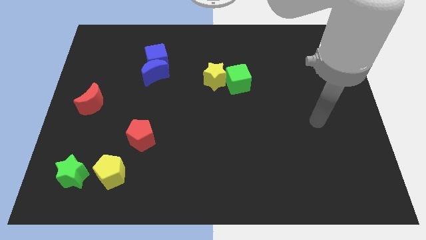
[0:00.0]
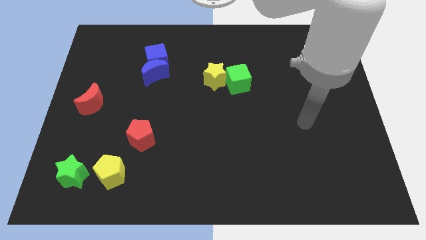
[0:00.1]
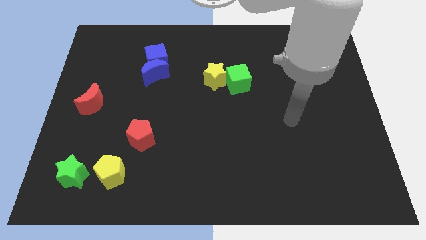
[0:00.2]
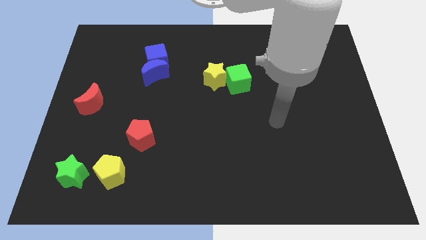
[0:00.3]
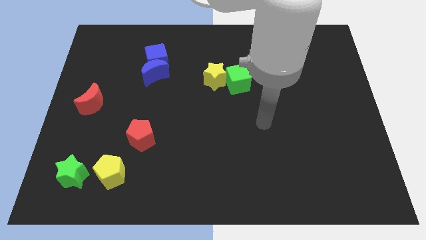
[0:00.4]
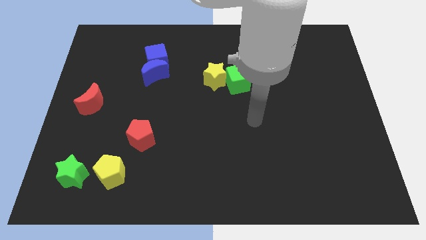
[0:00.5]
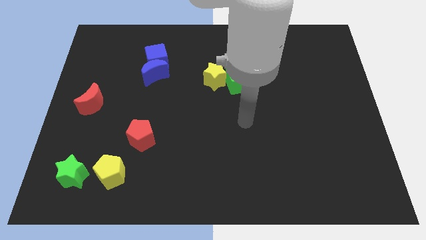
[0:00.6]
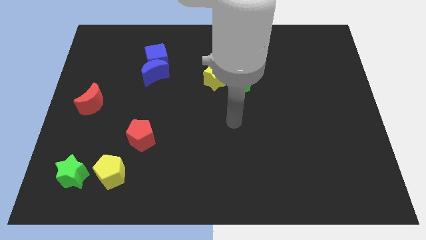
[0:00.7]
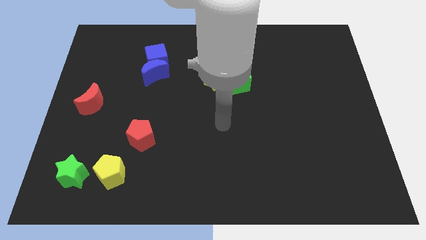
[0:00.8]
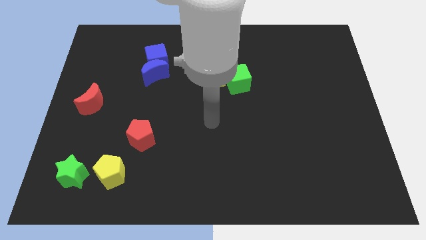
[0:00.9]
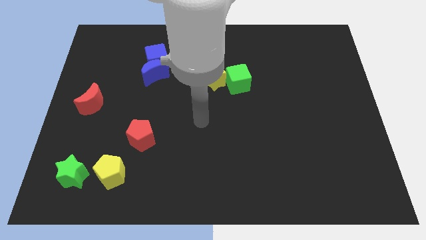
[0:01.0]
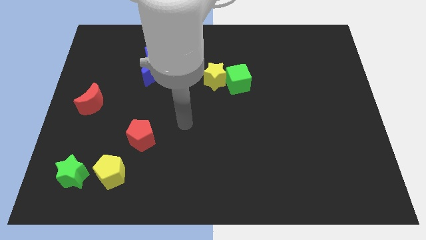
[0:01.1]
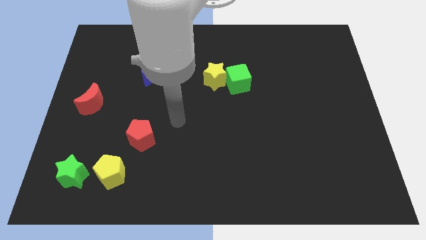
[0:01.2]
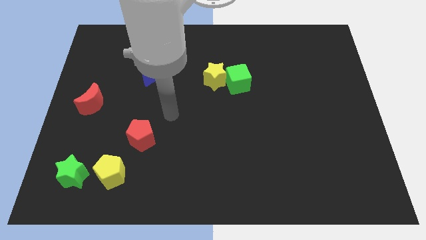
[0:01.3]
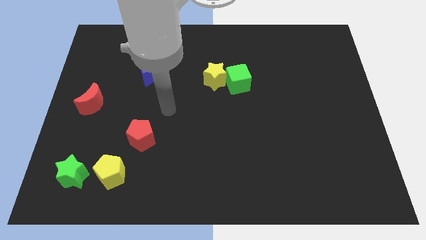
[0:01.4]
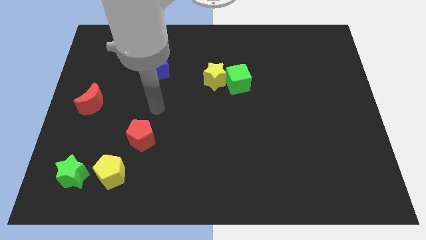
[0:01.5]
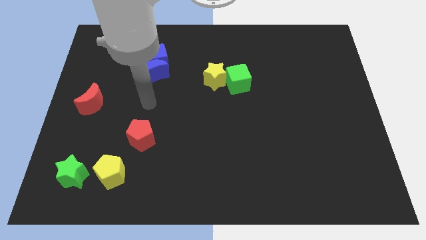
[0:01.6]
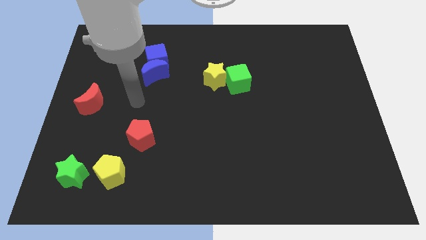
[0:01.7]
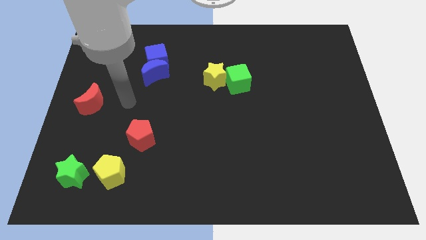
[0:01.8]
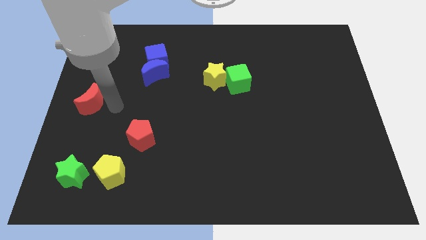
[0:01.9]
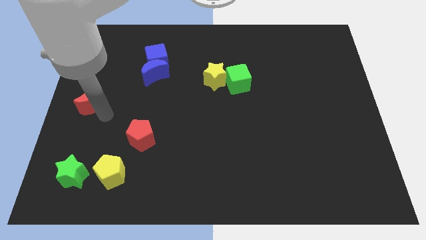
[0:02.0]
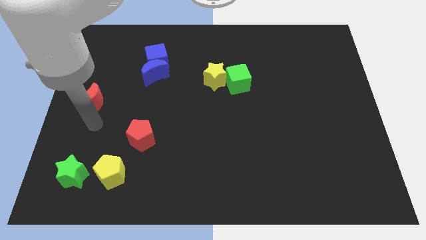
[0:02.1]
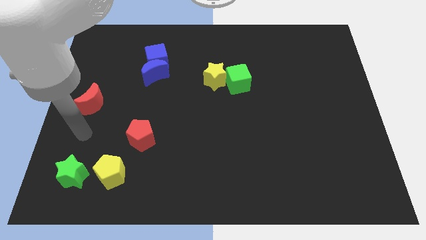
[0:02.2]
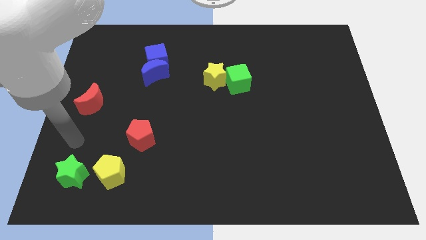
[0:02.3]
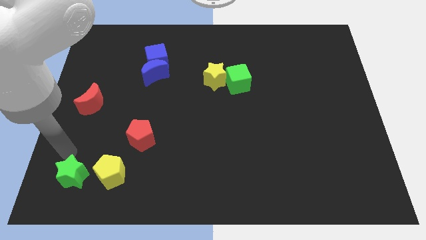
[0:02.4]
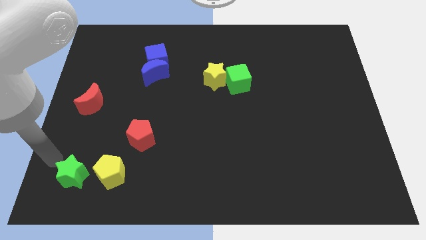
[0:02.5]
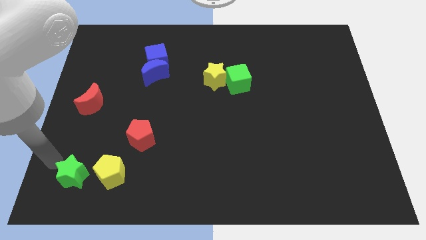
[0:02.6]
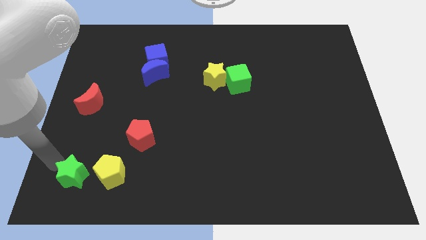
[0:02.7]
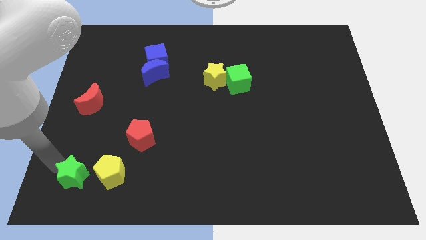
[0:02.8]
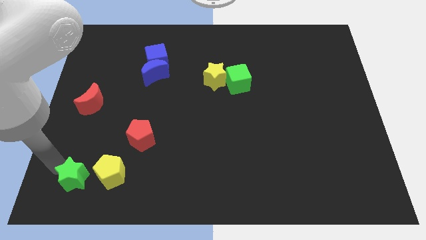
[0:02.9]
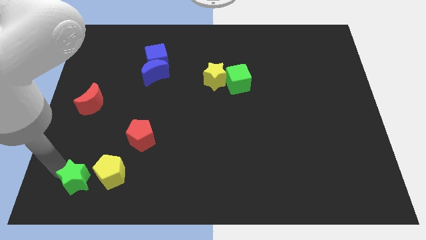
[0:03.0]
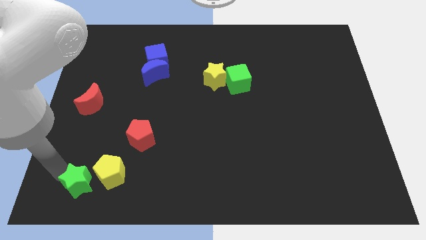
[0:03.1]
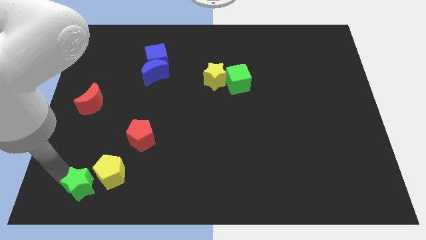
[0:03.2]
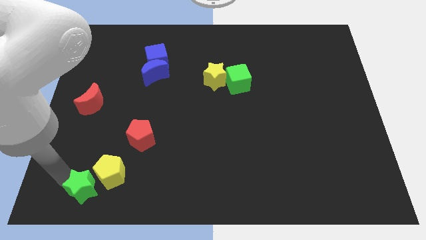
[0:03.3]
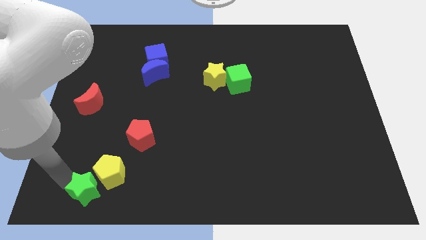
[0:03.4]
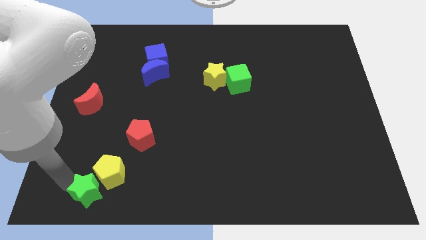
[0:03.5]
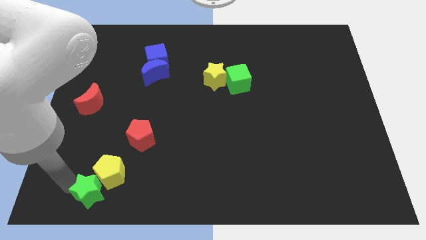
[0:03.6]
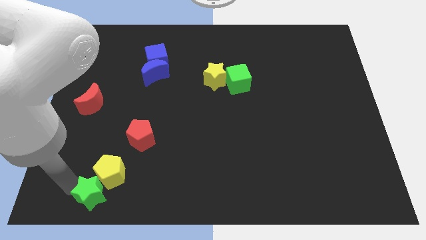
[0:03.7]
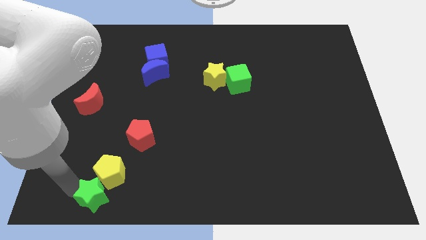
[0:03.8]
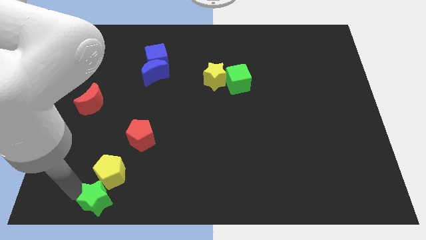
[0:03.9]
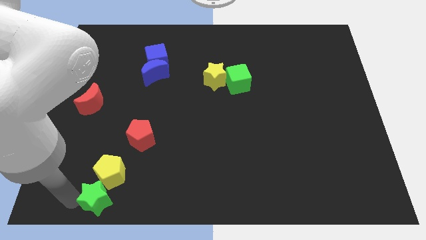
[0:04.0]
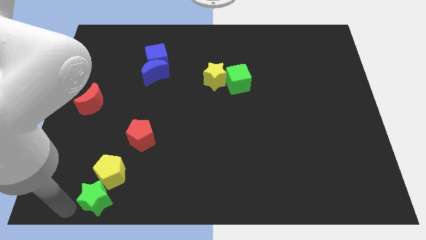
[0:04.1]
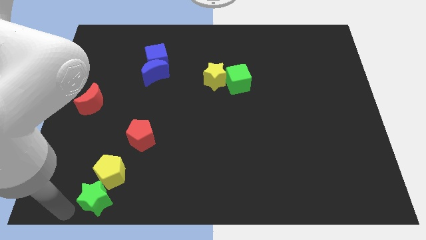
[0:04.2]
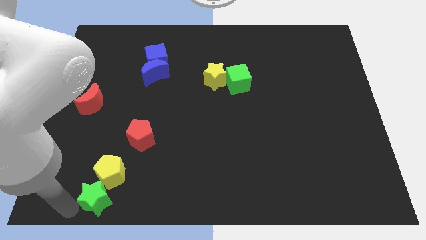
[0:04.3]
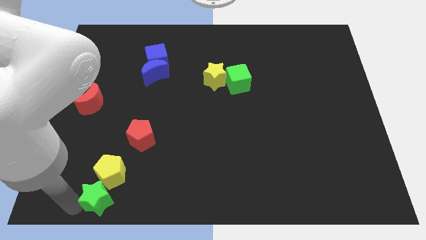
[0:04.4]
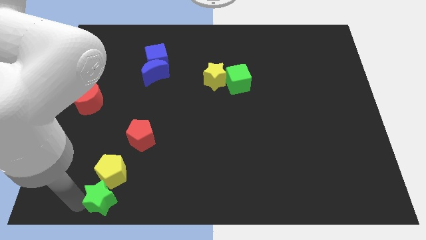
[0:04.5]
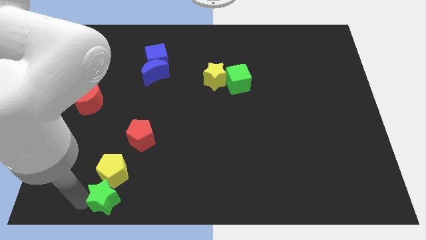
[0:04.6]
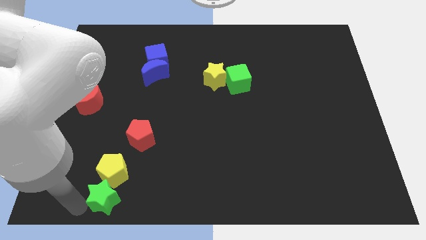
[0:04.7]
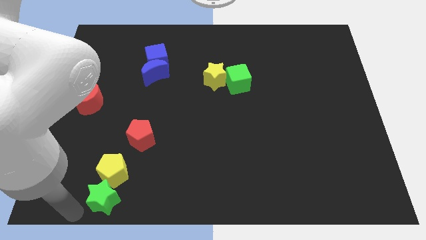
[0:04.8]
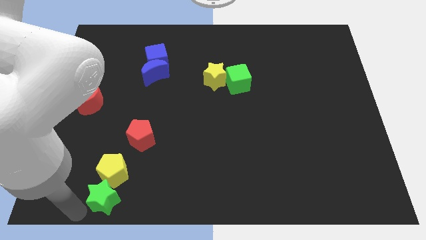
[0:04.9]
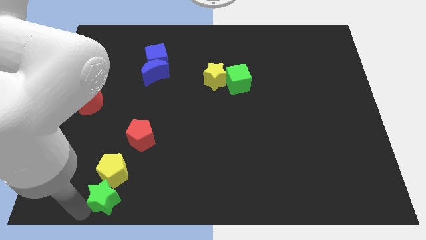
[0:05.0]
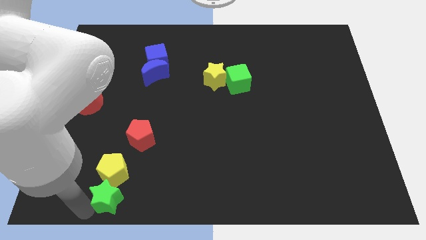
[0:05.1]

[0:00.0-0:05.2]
move the green star right a little

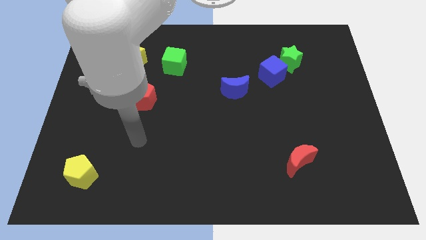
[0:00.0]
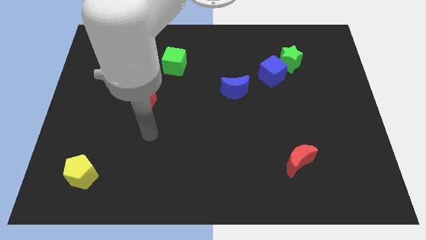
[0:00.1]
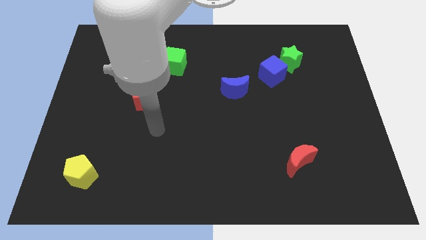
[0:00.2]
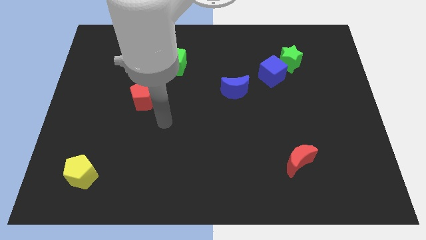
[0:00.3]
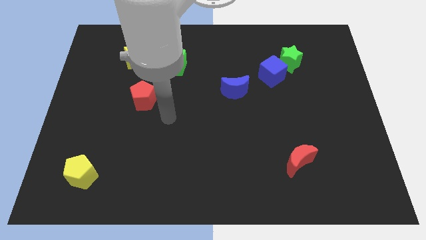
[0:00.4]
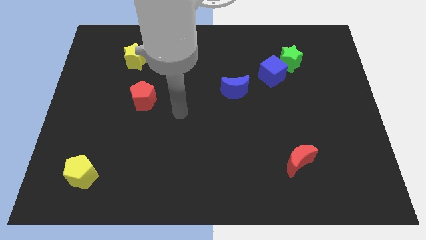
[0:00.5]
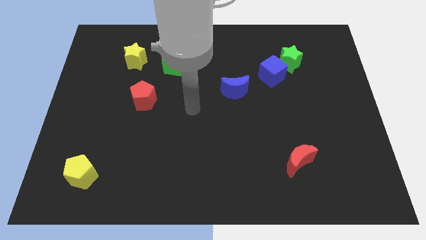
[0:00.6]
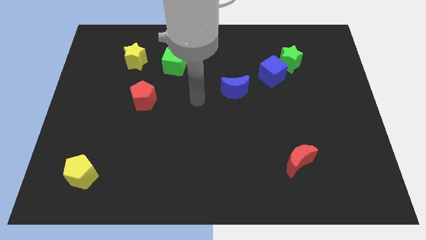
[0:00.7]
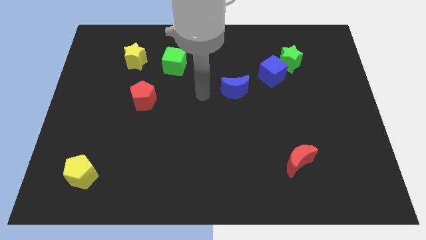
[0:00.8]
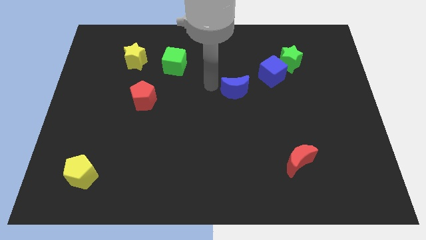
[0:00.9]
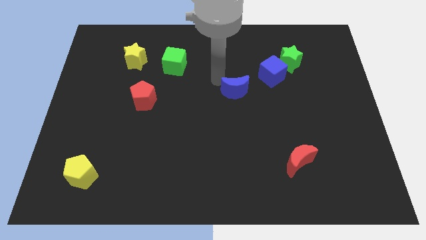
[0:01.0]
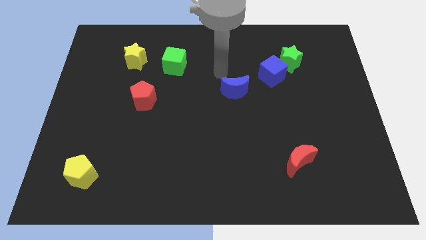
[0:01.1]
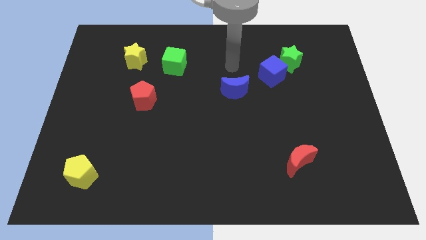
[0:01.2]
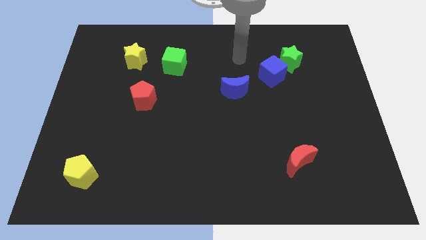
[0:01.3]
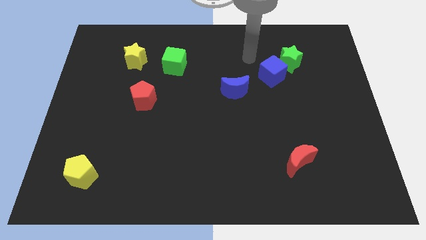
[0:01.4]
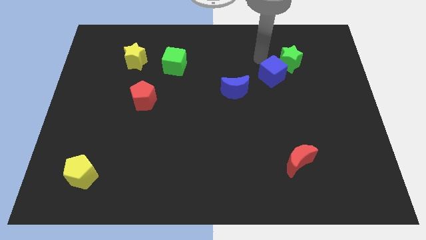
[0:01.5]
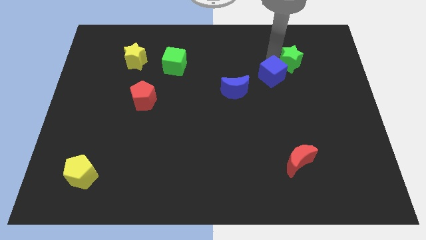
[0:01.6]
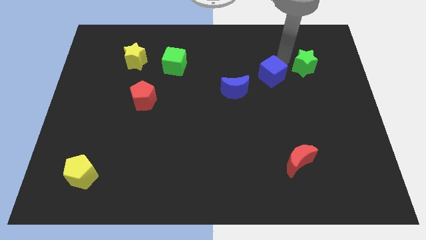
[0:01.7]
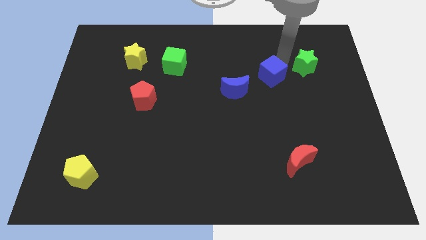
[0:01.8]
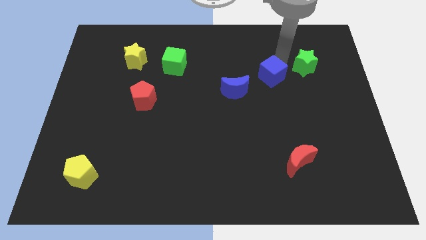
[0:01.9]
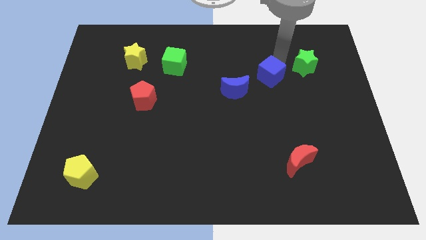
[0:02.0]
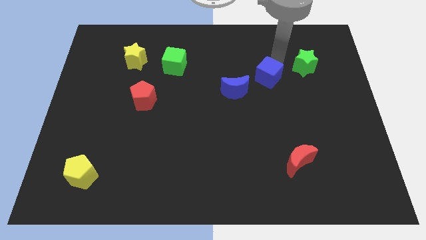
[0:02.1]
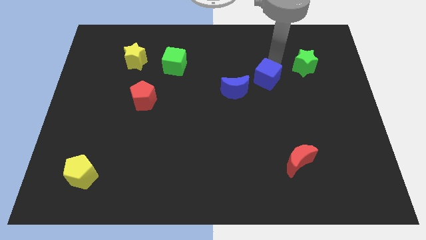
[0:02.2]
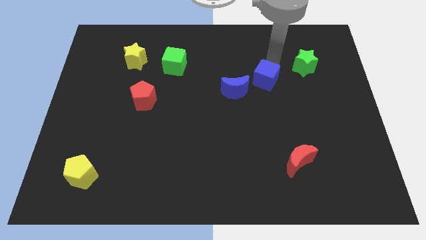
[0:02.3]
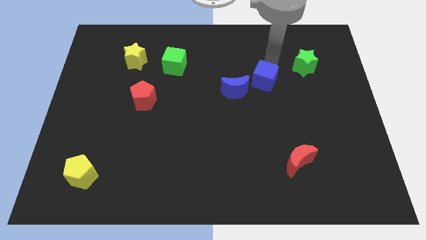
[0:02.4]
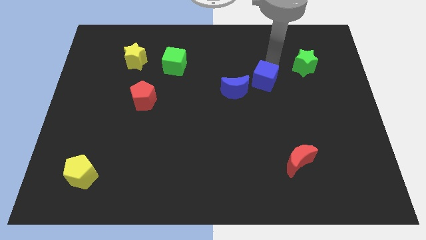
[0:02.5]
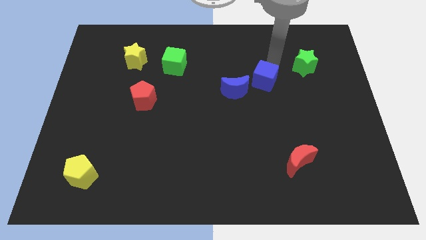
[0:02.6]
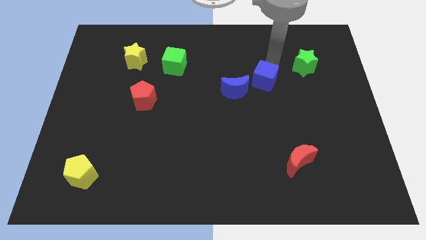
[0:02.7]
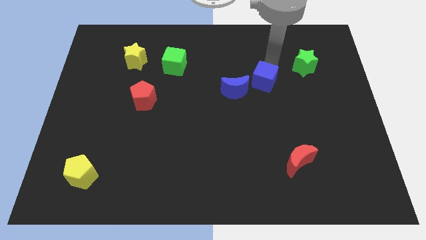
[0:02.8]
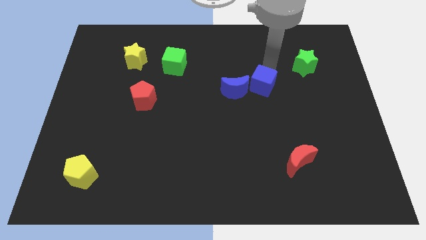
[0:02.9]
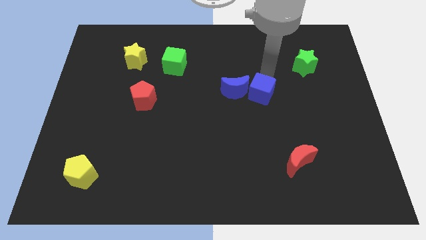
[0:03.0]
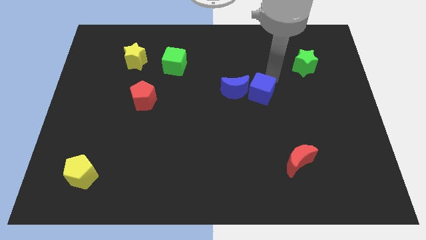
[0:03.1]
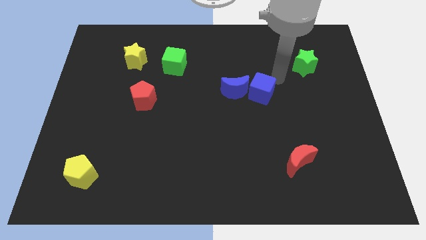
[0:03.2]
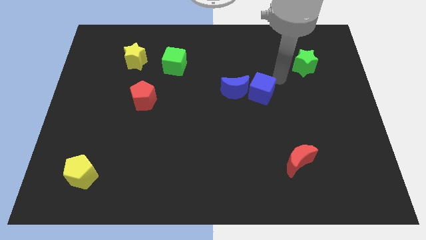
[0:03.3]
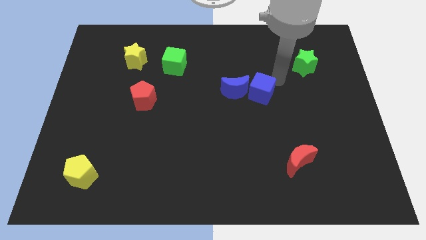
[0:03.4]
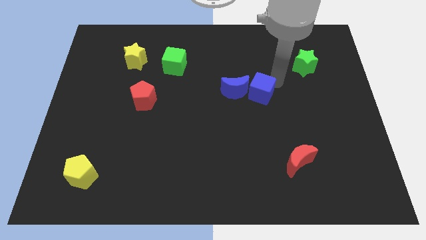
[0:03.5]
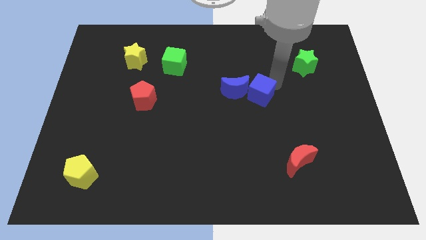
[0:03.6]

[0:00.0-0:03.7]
push the blue cube down and then to the left somewhat
